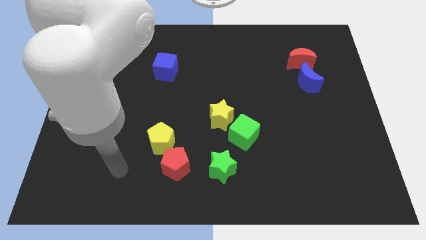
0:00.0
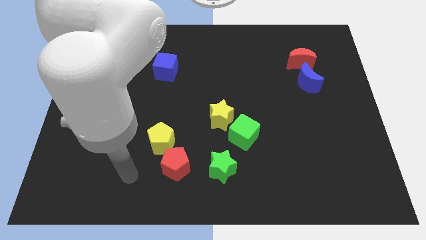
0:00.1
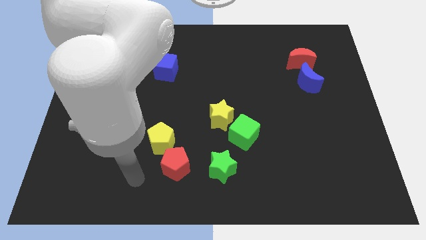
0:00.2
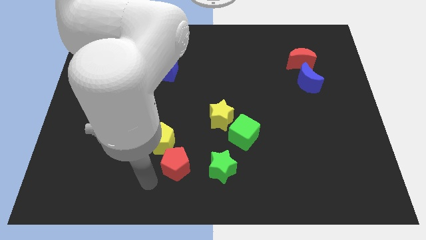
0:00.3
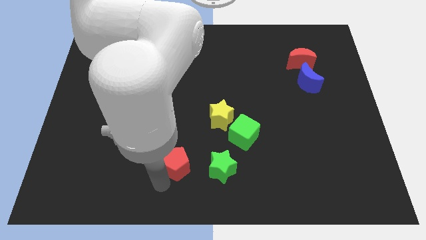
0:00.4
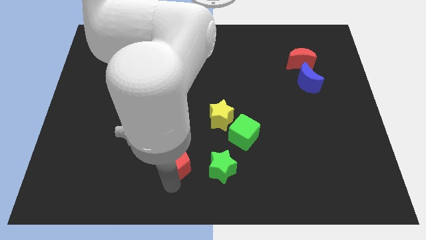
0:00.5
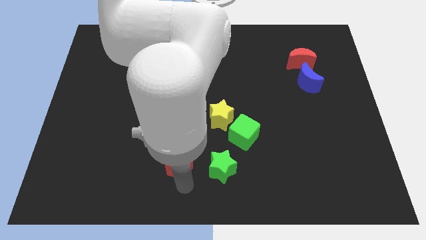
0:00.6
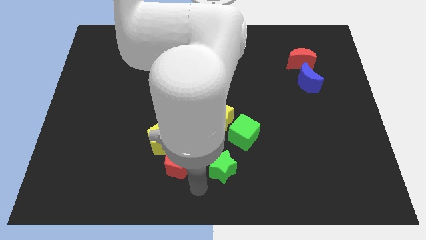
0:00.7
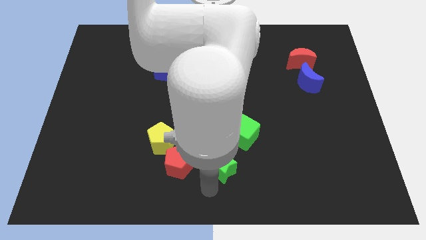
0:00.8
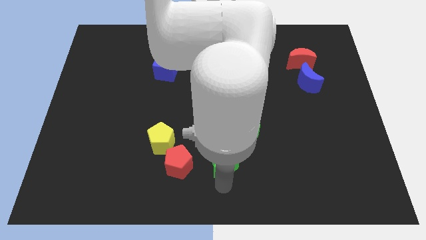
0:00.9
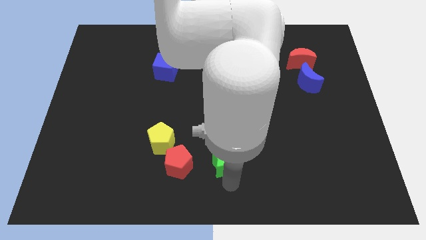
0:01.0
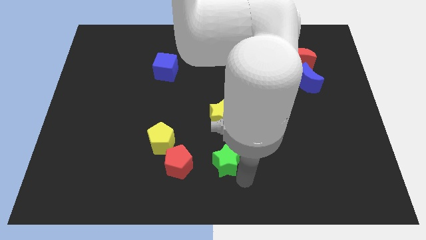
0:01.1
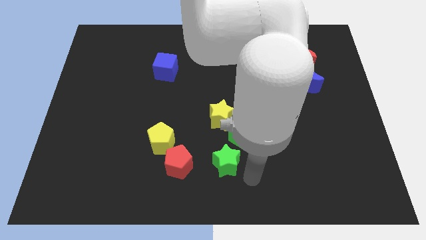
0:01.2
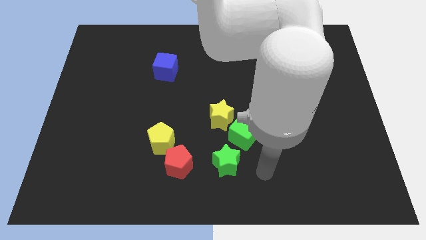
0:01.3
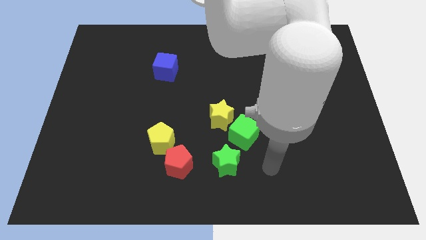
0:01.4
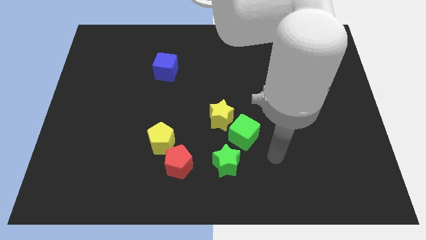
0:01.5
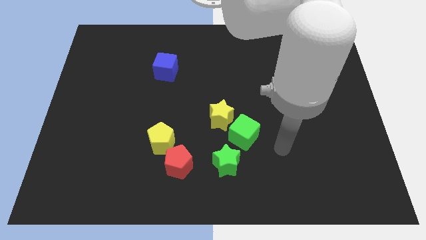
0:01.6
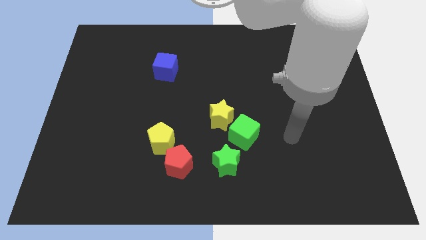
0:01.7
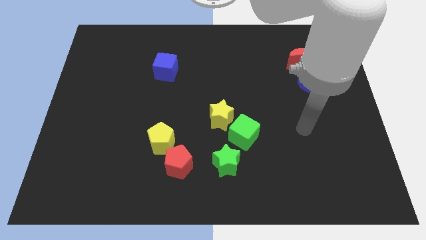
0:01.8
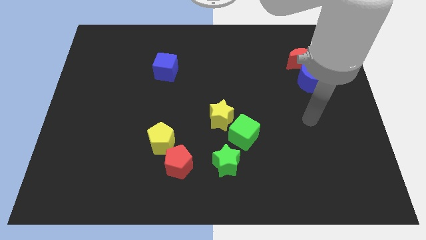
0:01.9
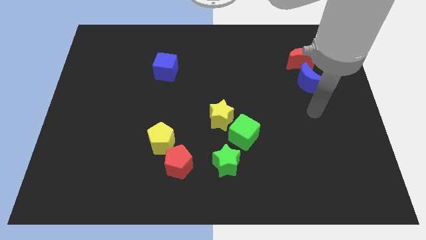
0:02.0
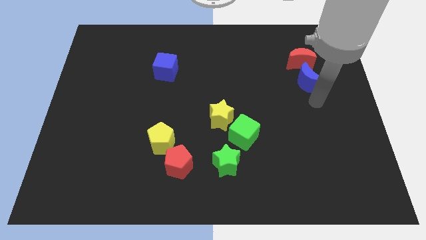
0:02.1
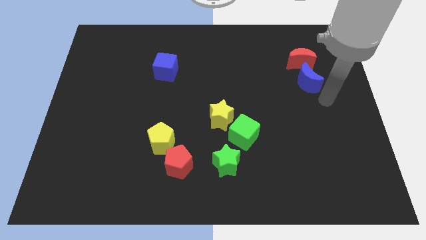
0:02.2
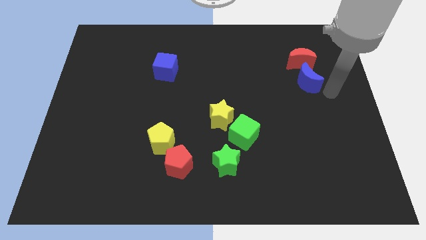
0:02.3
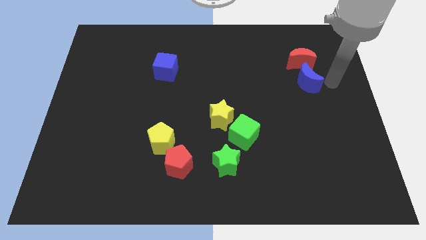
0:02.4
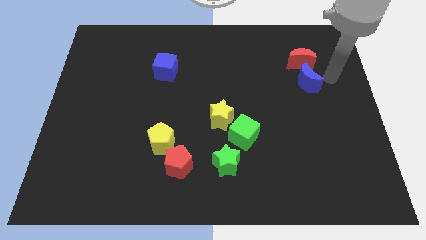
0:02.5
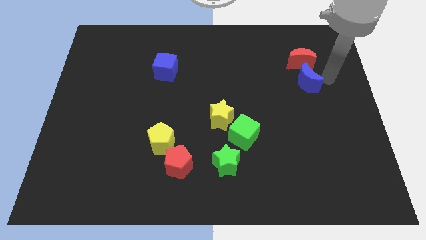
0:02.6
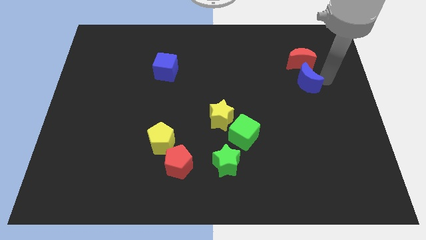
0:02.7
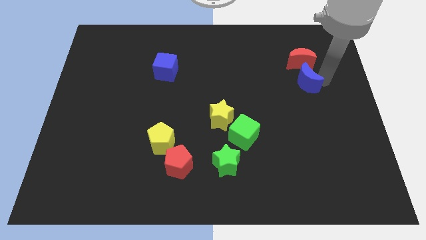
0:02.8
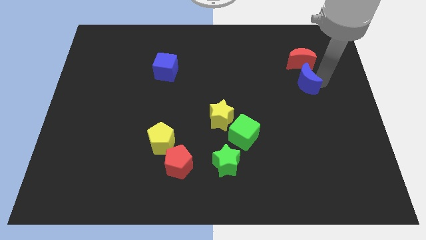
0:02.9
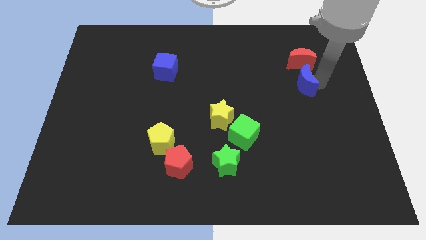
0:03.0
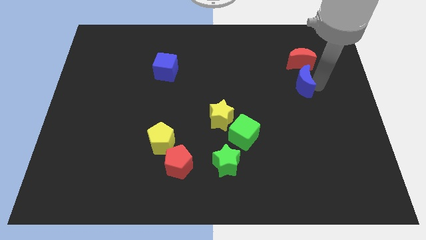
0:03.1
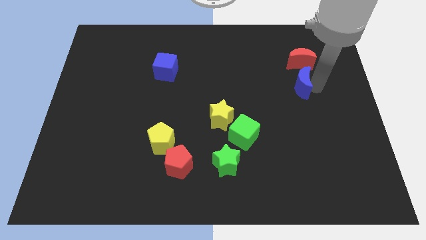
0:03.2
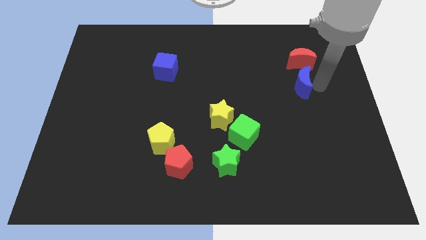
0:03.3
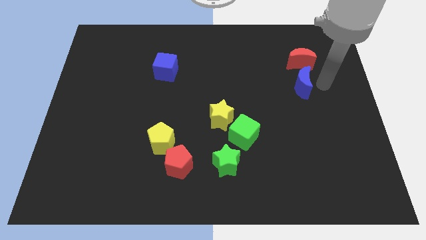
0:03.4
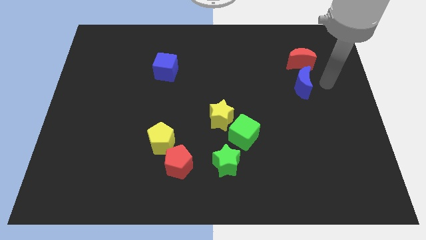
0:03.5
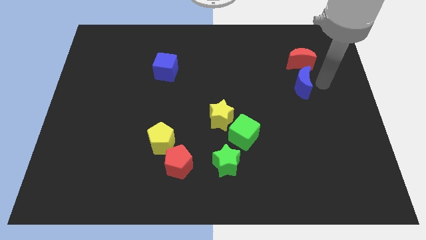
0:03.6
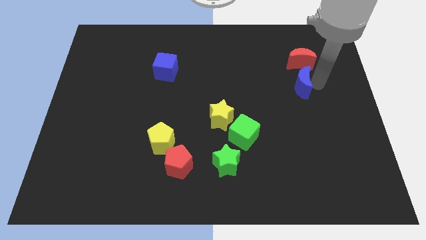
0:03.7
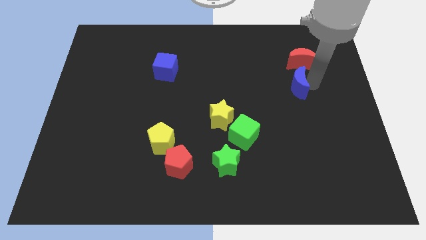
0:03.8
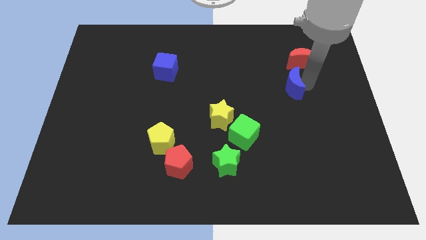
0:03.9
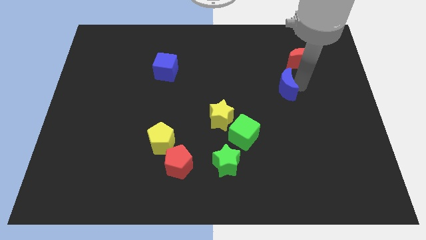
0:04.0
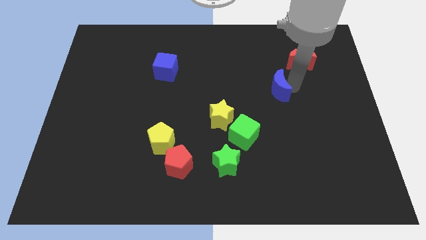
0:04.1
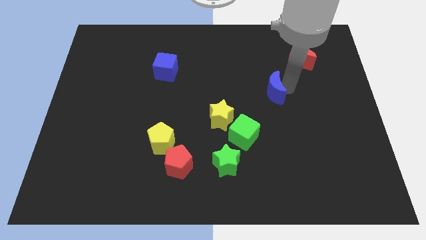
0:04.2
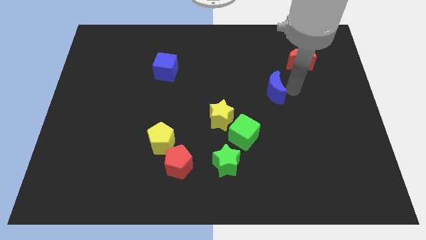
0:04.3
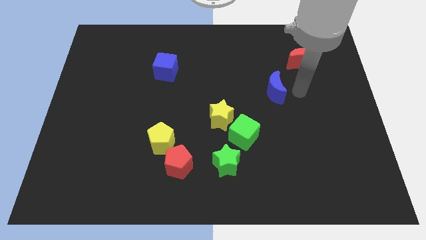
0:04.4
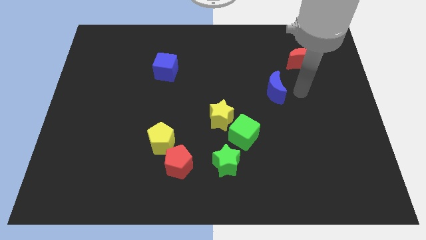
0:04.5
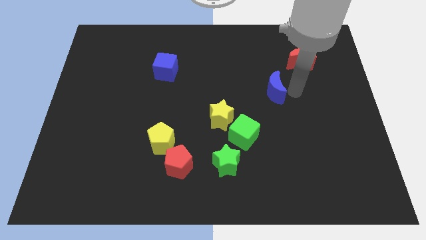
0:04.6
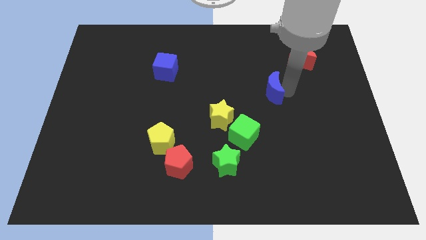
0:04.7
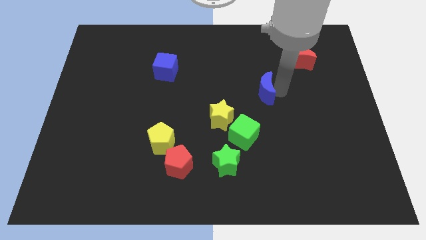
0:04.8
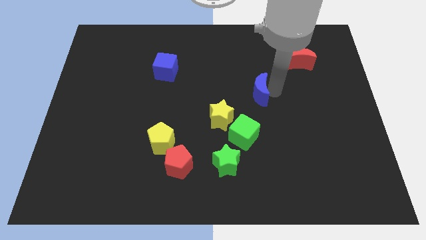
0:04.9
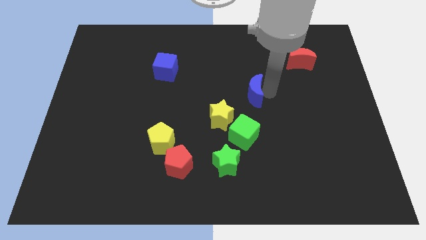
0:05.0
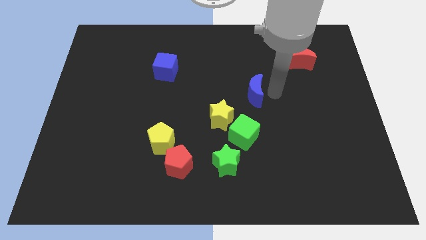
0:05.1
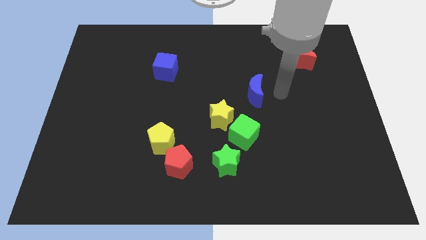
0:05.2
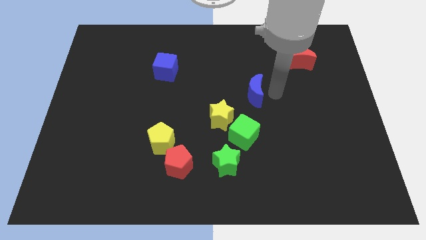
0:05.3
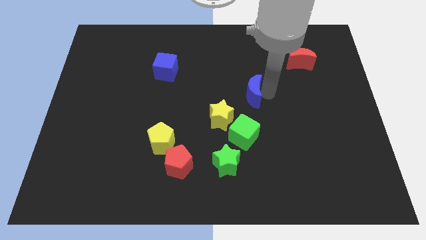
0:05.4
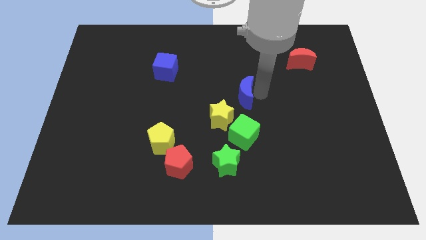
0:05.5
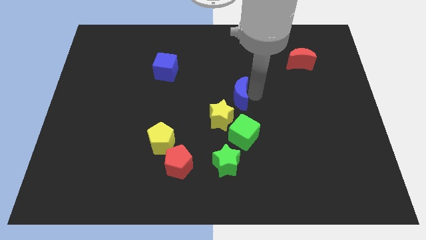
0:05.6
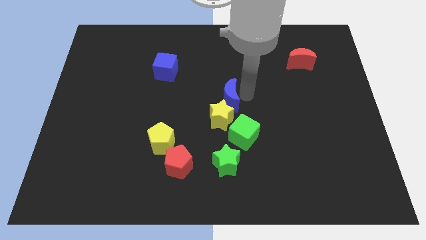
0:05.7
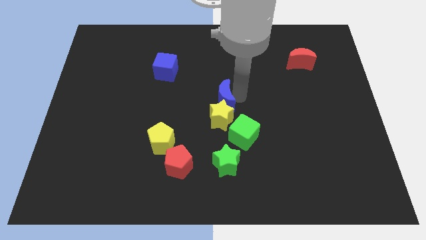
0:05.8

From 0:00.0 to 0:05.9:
slide the blue moon diagonally up and to the left of the yellow star

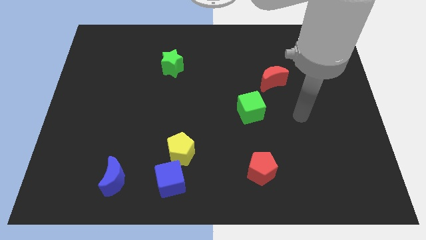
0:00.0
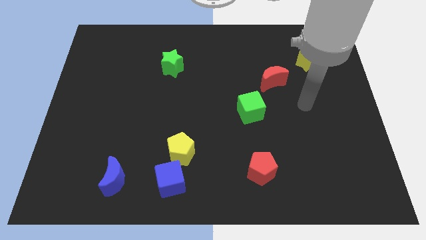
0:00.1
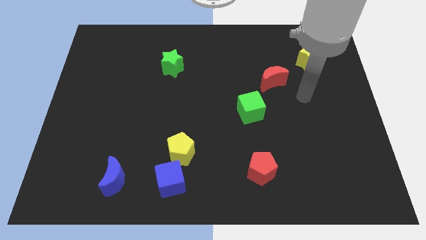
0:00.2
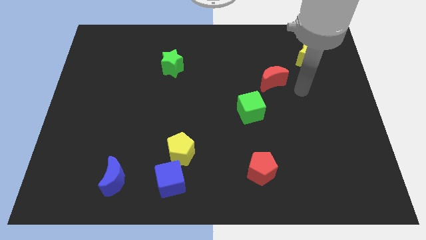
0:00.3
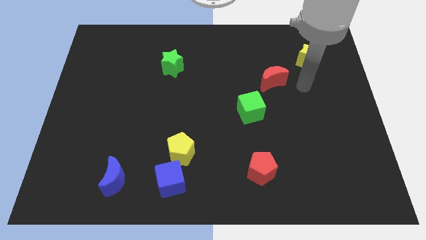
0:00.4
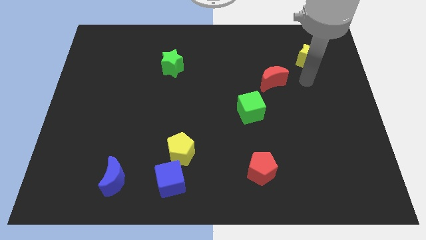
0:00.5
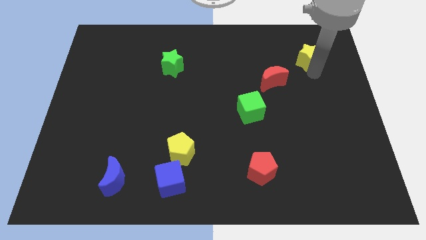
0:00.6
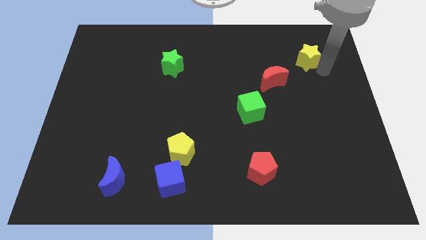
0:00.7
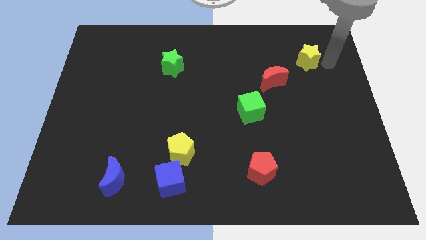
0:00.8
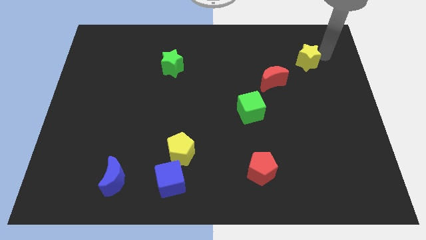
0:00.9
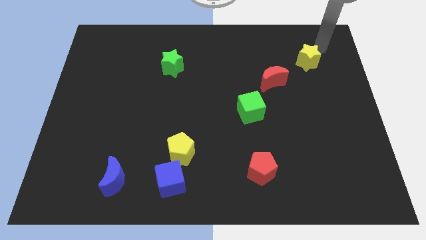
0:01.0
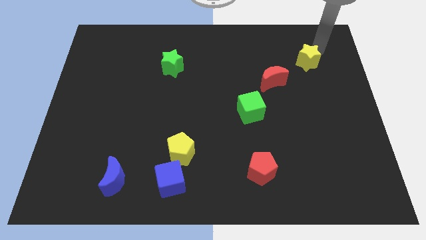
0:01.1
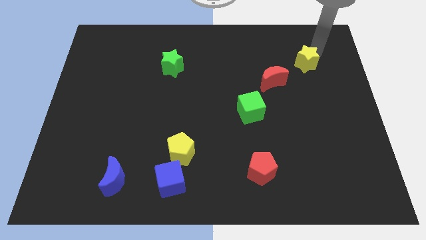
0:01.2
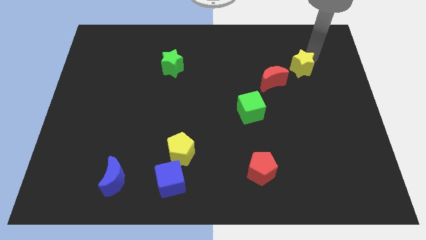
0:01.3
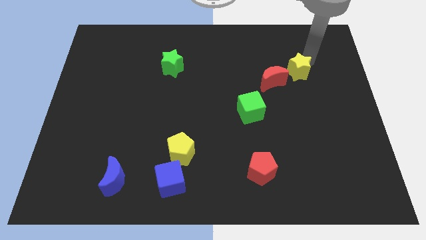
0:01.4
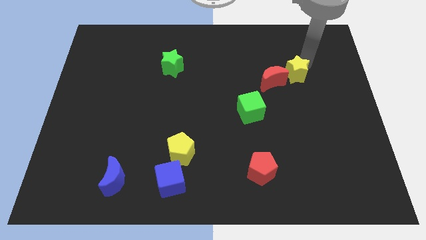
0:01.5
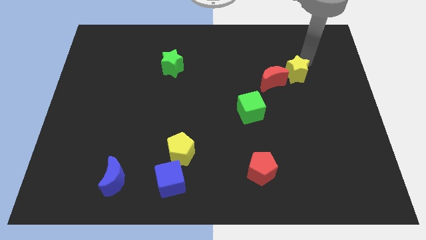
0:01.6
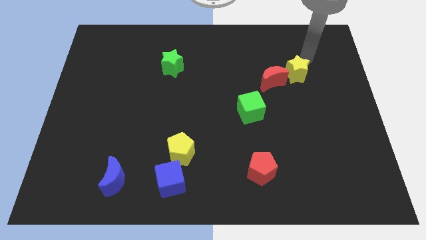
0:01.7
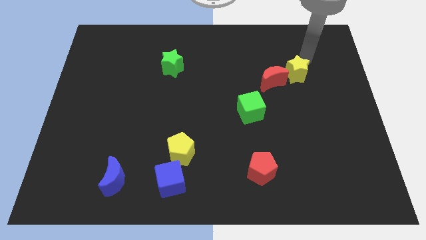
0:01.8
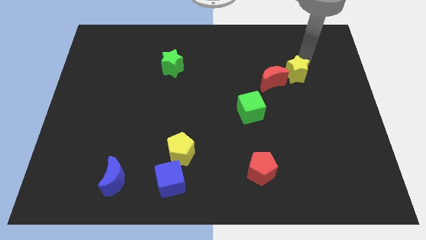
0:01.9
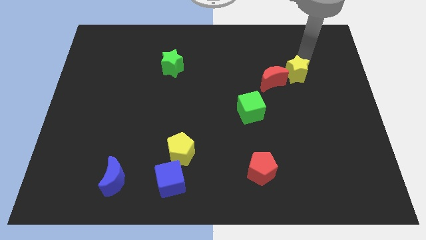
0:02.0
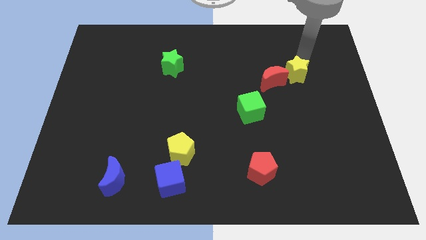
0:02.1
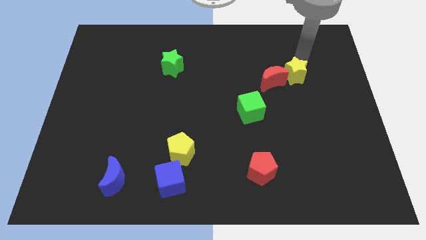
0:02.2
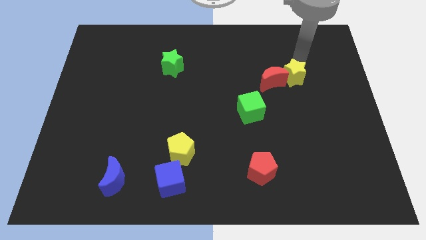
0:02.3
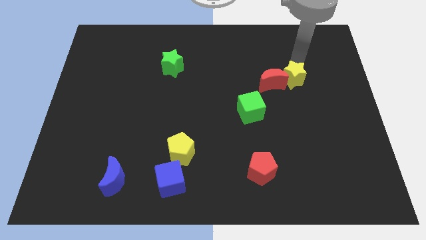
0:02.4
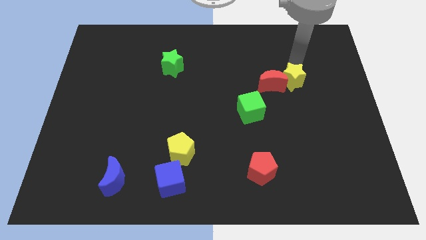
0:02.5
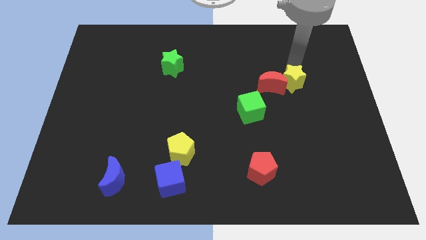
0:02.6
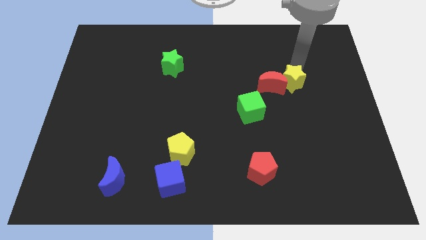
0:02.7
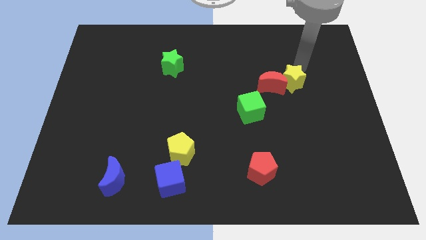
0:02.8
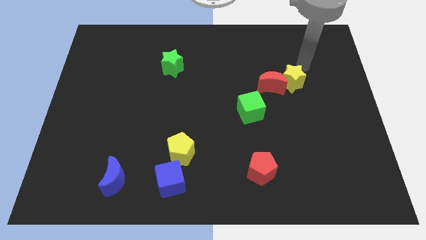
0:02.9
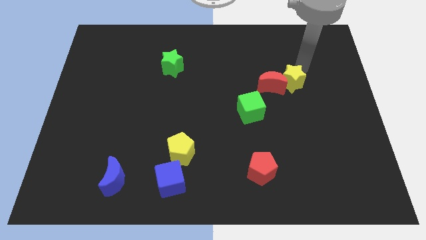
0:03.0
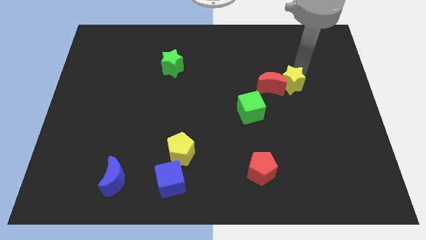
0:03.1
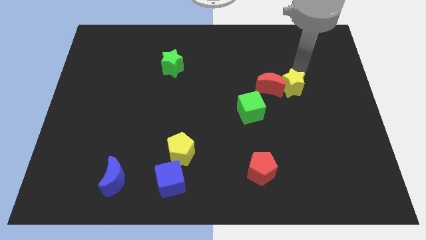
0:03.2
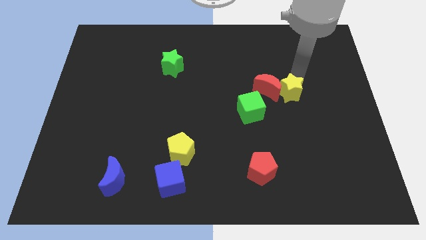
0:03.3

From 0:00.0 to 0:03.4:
move the yellow star to the top right side of the green cube
